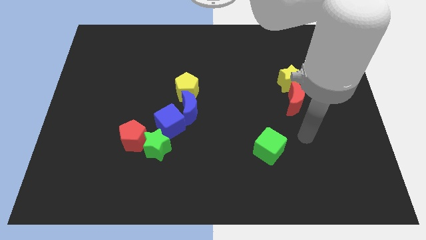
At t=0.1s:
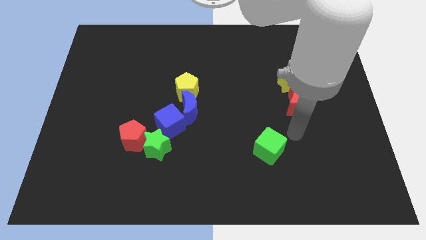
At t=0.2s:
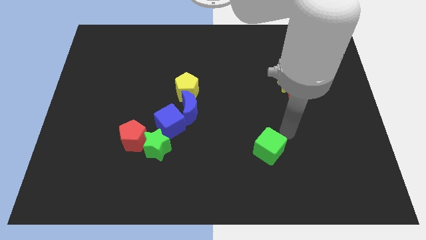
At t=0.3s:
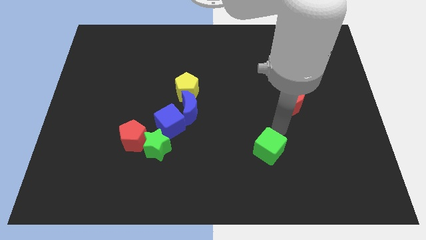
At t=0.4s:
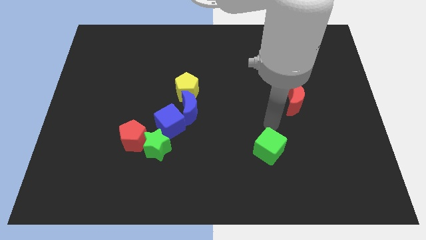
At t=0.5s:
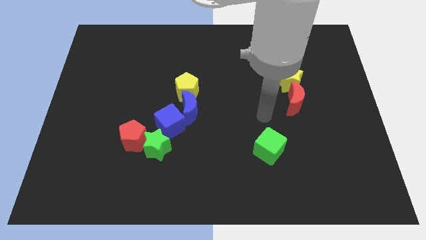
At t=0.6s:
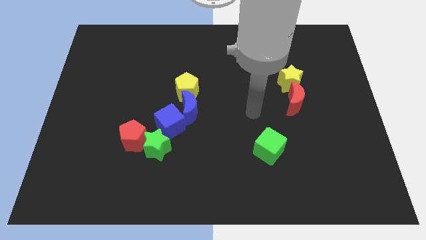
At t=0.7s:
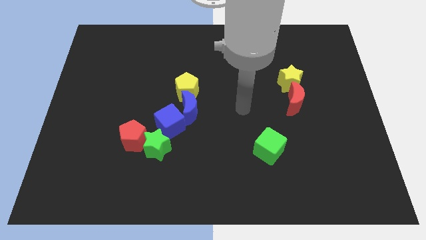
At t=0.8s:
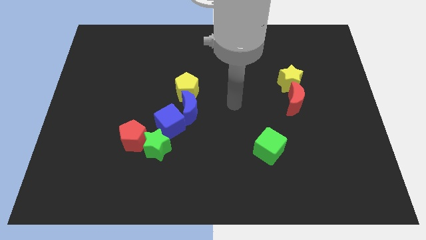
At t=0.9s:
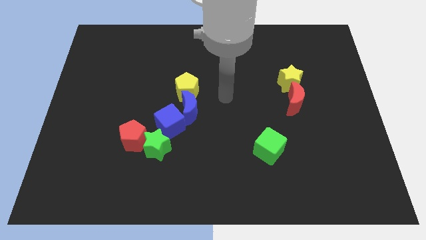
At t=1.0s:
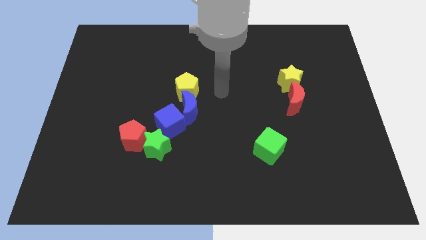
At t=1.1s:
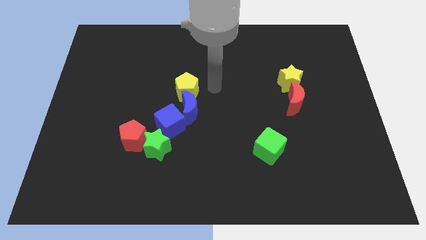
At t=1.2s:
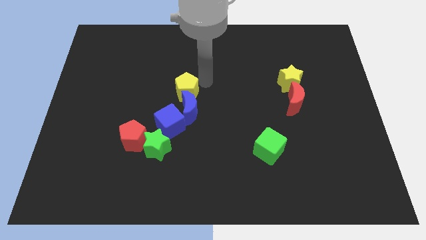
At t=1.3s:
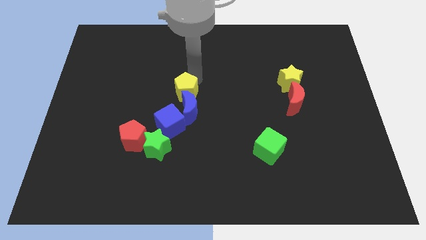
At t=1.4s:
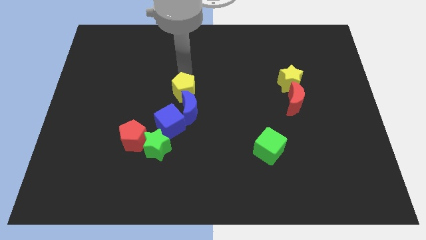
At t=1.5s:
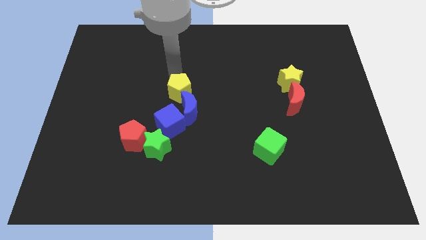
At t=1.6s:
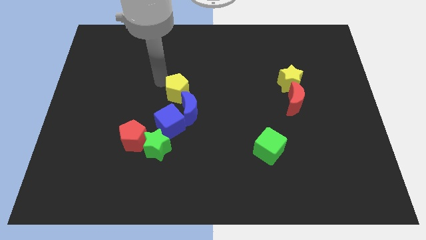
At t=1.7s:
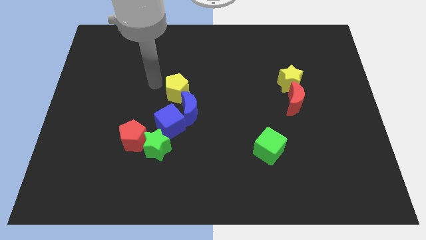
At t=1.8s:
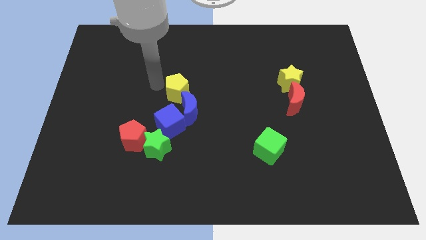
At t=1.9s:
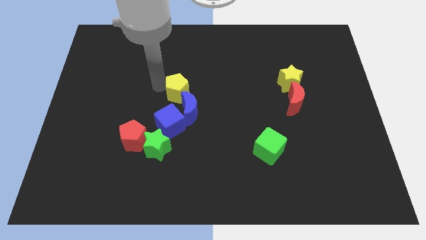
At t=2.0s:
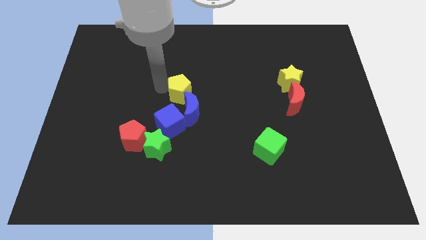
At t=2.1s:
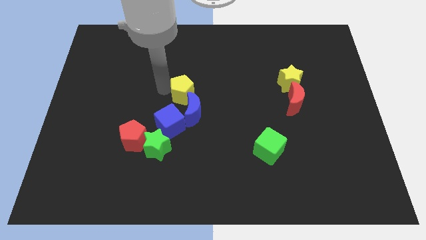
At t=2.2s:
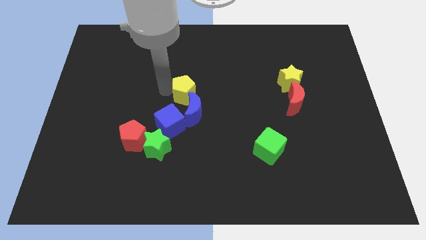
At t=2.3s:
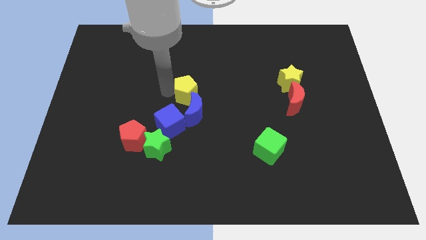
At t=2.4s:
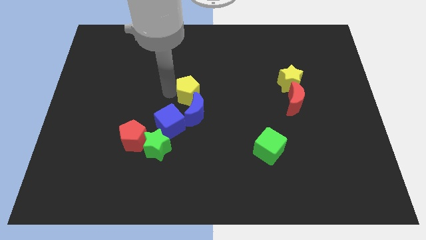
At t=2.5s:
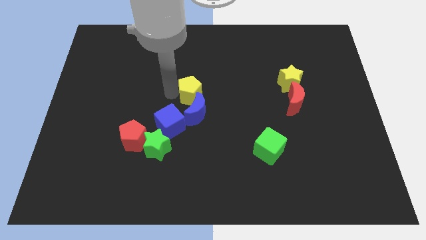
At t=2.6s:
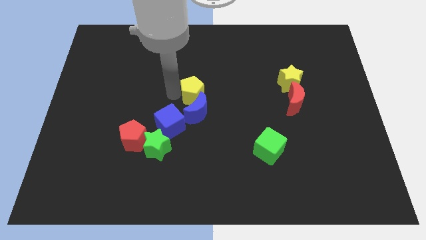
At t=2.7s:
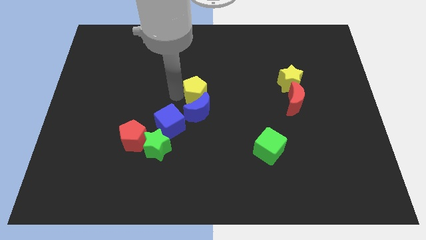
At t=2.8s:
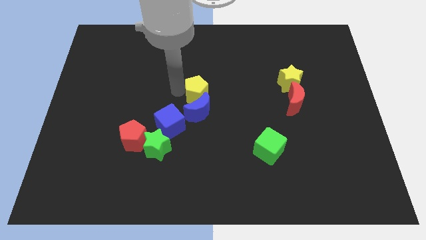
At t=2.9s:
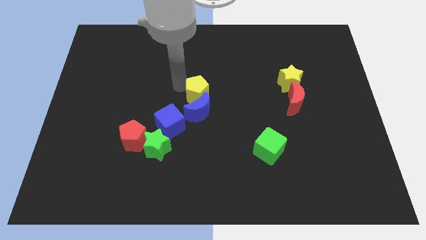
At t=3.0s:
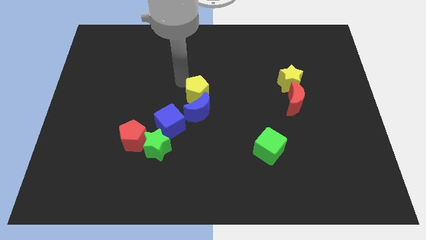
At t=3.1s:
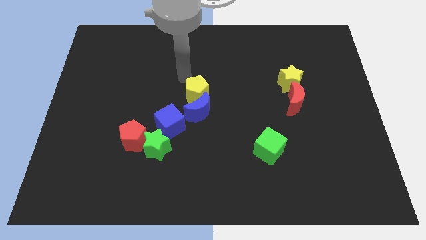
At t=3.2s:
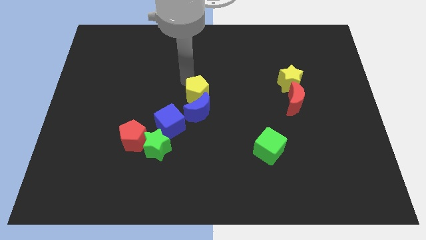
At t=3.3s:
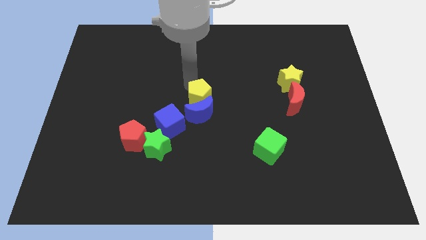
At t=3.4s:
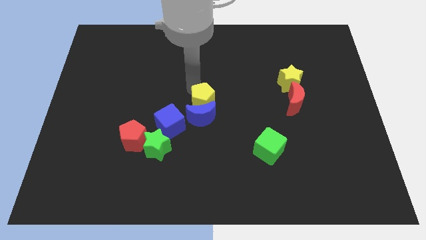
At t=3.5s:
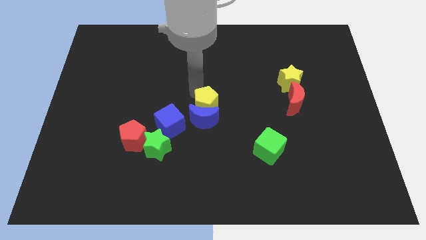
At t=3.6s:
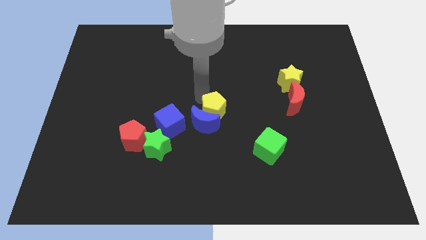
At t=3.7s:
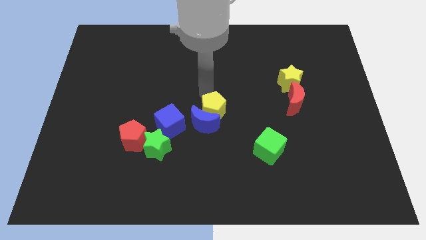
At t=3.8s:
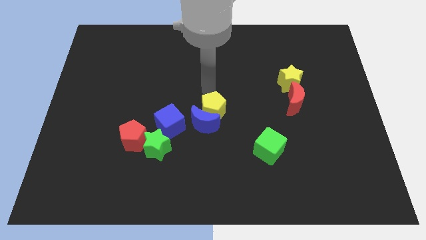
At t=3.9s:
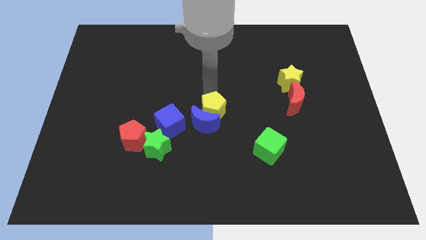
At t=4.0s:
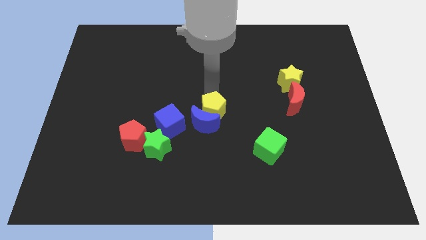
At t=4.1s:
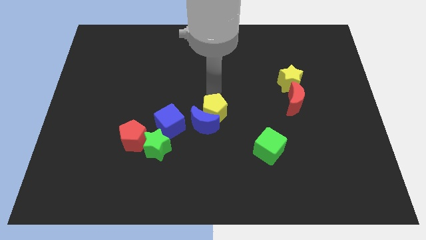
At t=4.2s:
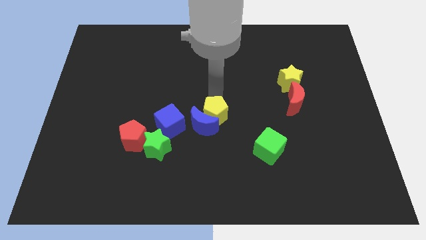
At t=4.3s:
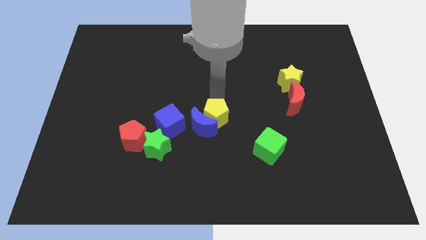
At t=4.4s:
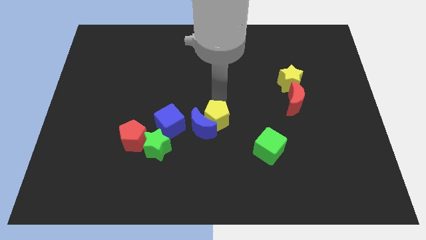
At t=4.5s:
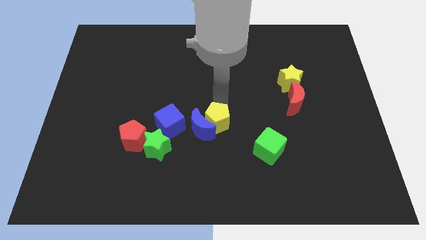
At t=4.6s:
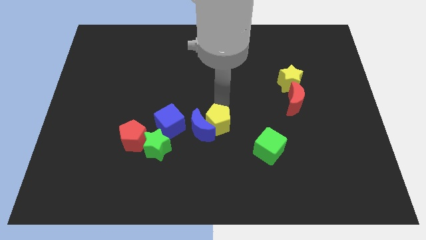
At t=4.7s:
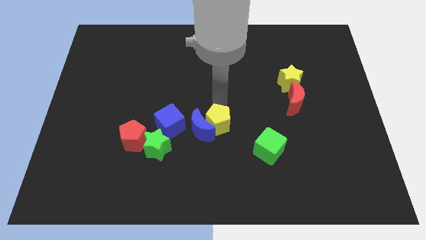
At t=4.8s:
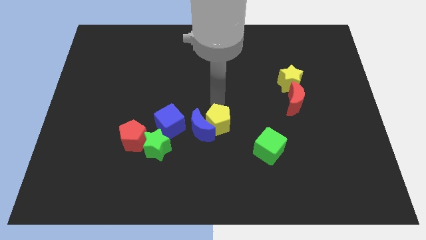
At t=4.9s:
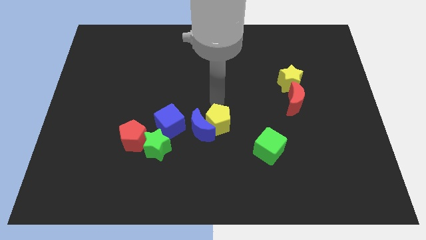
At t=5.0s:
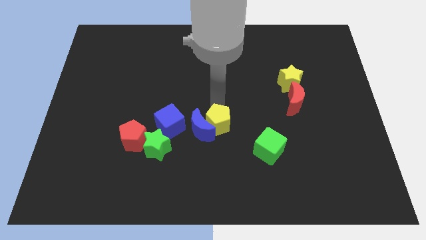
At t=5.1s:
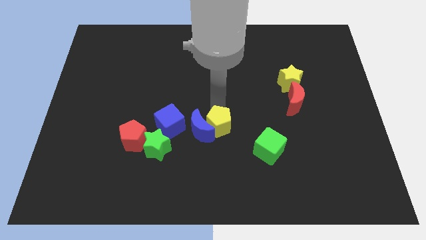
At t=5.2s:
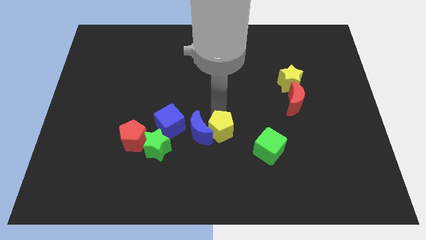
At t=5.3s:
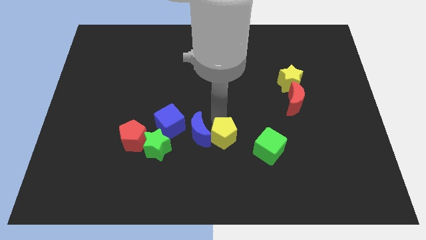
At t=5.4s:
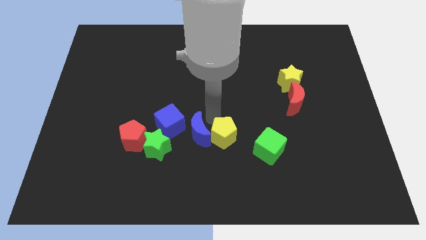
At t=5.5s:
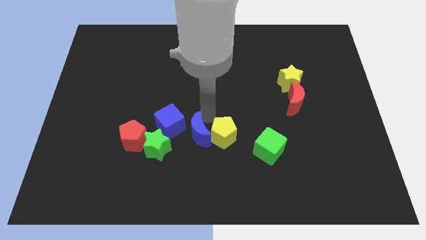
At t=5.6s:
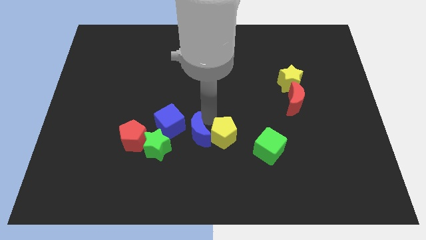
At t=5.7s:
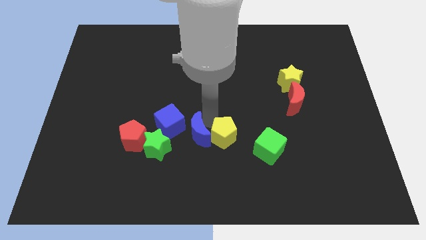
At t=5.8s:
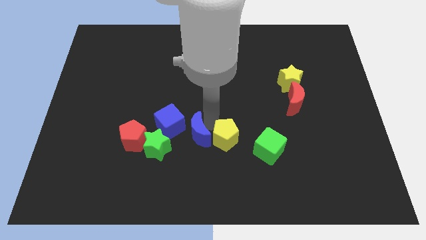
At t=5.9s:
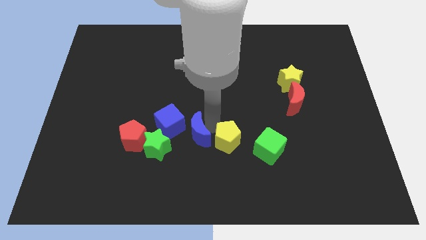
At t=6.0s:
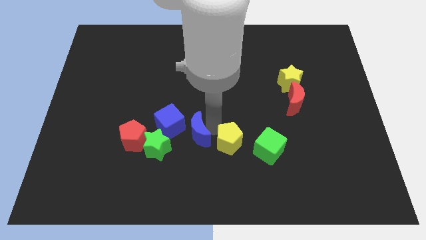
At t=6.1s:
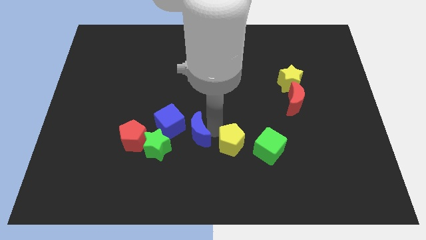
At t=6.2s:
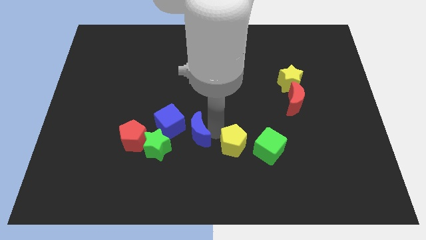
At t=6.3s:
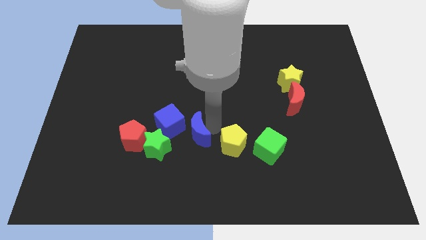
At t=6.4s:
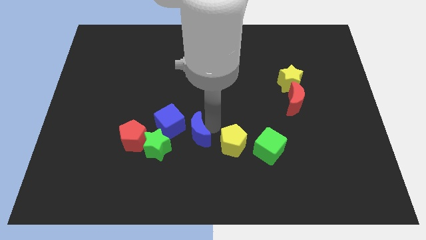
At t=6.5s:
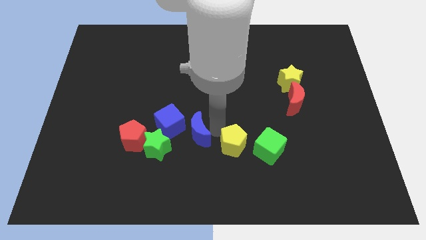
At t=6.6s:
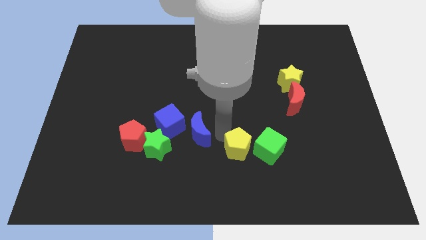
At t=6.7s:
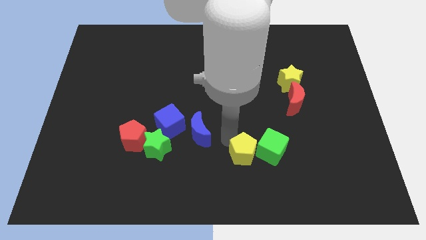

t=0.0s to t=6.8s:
slide the yellow pentagon downwards and right

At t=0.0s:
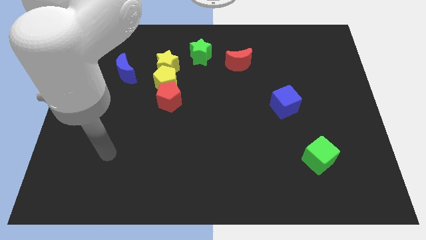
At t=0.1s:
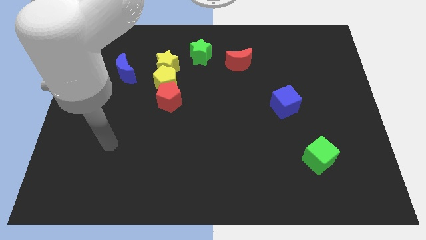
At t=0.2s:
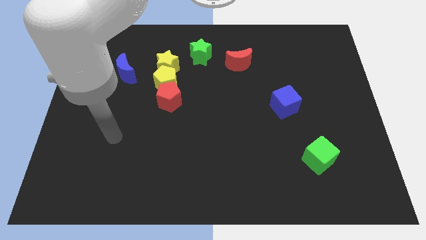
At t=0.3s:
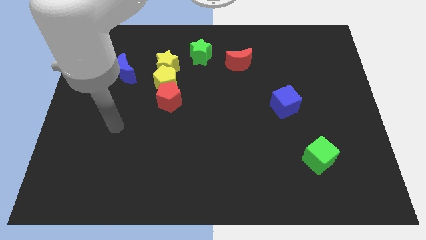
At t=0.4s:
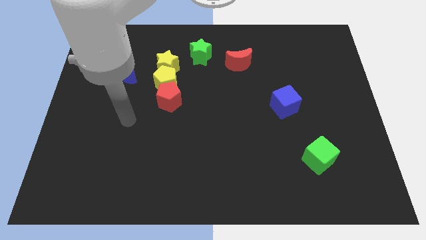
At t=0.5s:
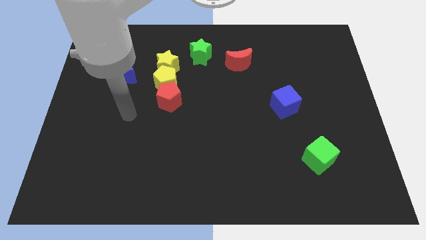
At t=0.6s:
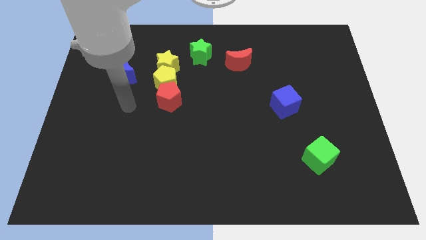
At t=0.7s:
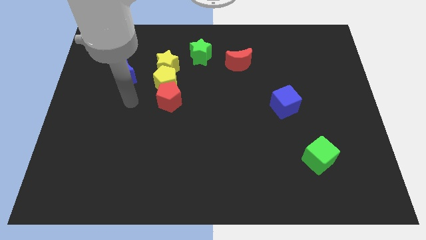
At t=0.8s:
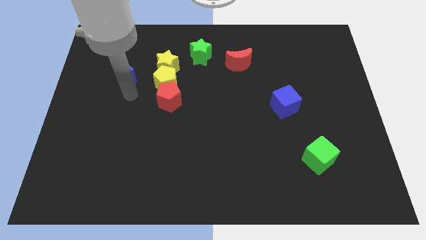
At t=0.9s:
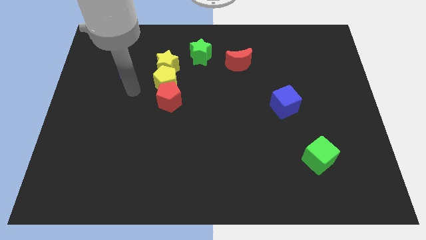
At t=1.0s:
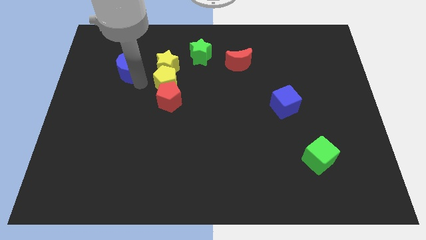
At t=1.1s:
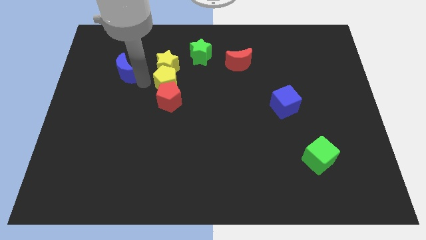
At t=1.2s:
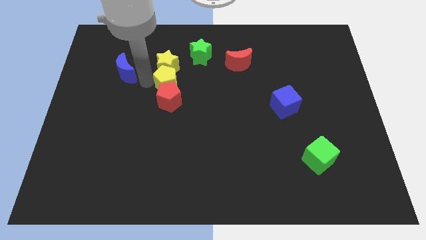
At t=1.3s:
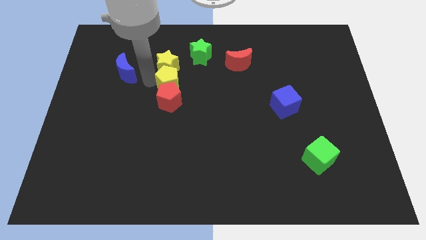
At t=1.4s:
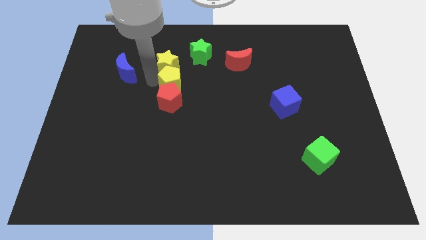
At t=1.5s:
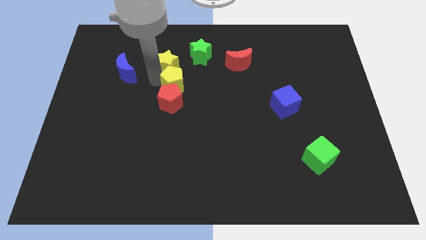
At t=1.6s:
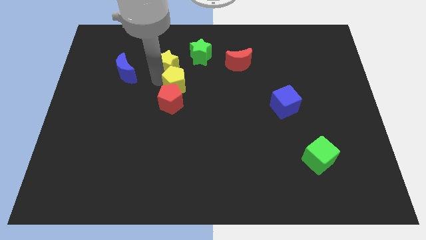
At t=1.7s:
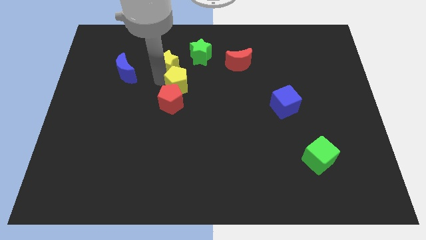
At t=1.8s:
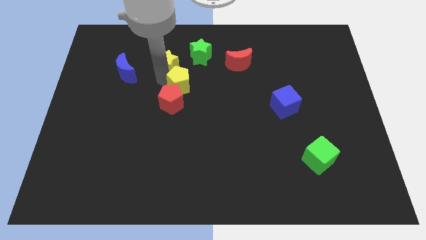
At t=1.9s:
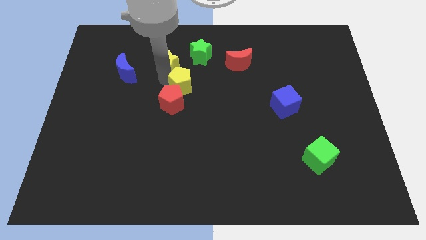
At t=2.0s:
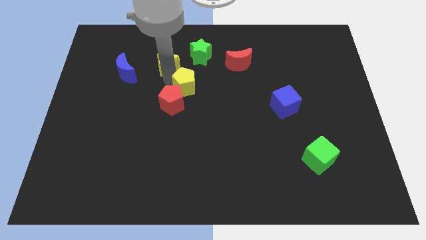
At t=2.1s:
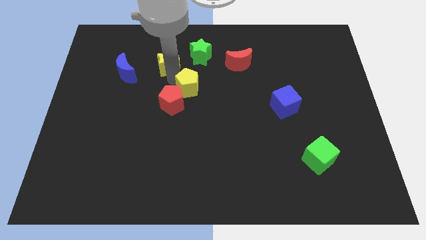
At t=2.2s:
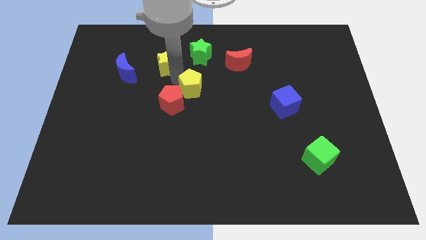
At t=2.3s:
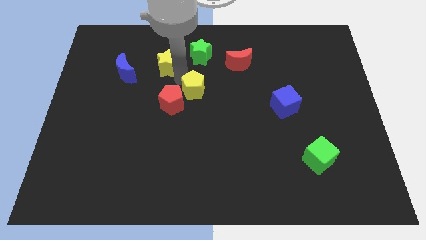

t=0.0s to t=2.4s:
slightly push the yellow pentagon right
